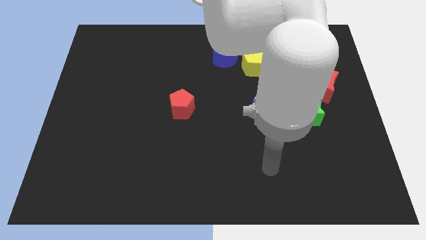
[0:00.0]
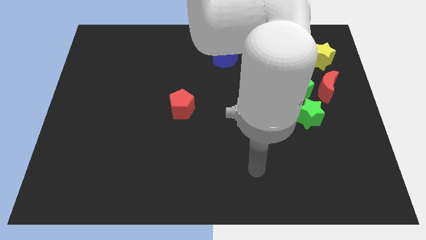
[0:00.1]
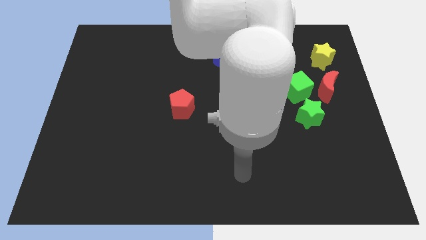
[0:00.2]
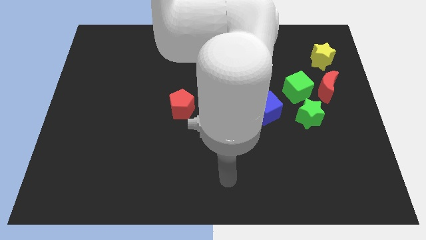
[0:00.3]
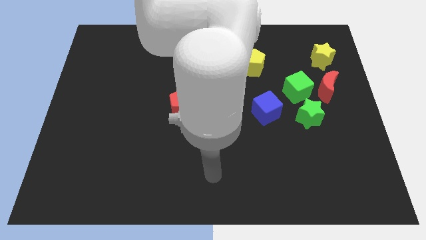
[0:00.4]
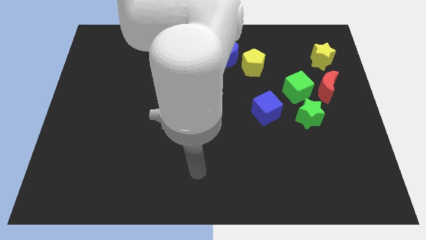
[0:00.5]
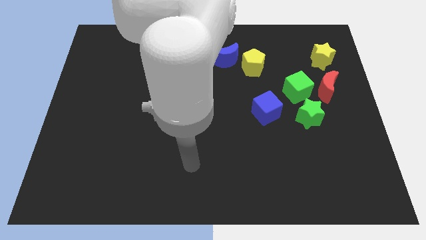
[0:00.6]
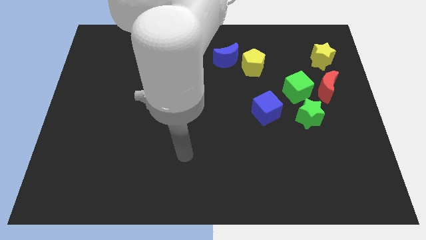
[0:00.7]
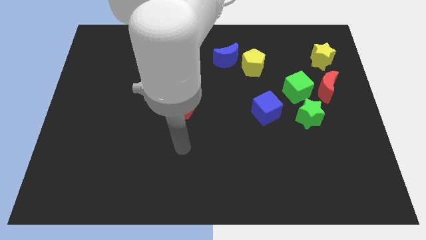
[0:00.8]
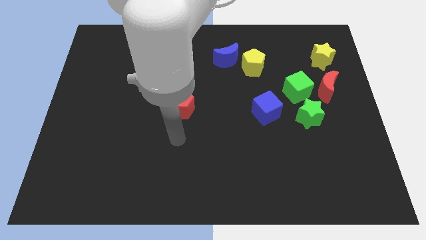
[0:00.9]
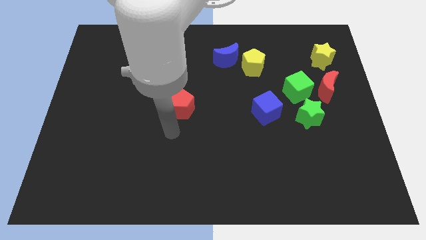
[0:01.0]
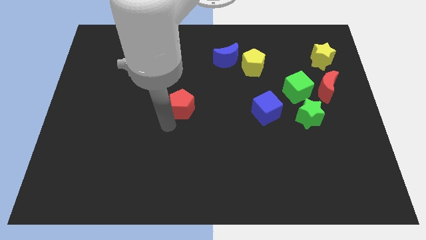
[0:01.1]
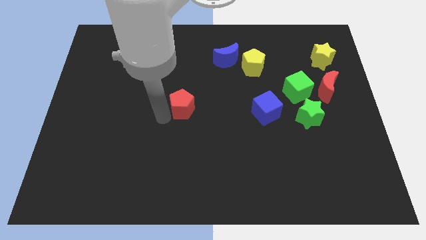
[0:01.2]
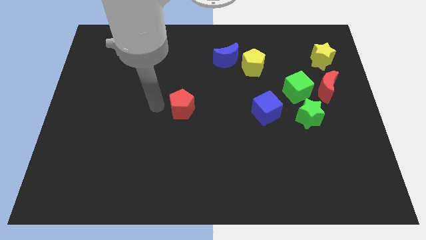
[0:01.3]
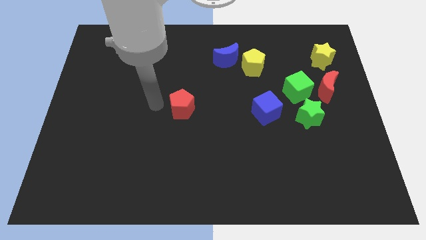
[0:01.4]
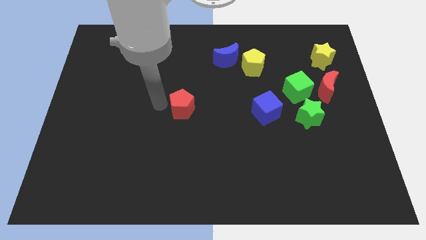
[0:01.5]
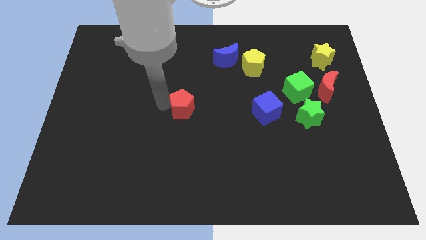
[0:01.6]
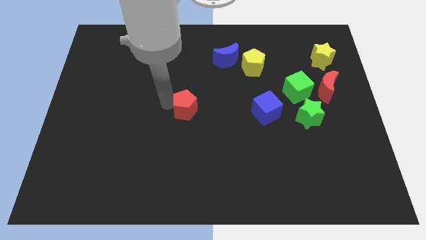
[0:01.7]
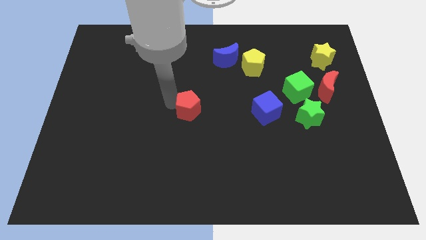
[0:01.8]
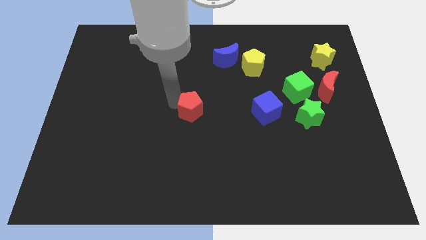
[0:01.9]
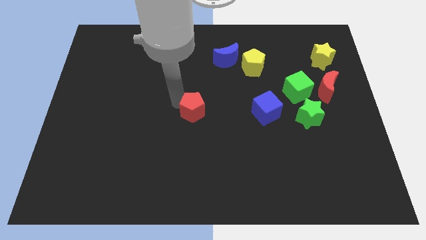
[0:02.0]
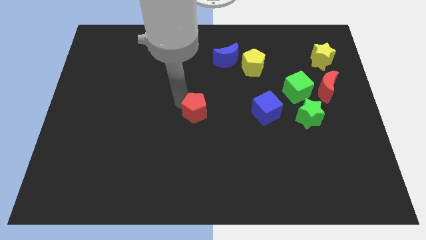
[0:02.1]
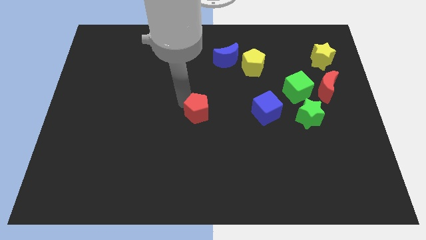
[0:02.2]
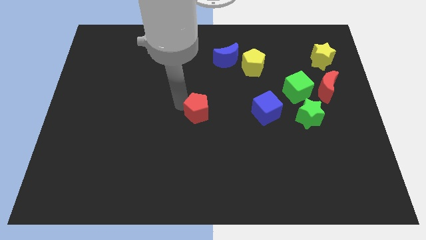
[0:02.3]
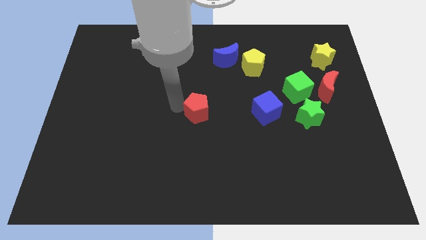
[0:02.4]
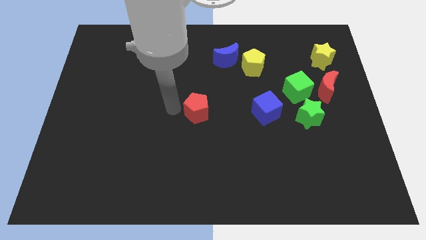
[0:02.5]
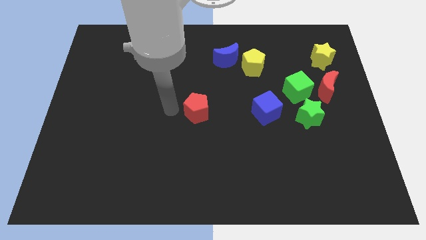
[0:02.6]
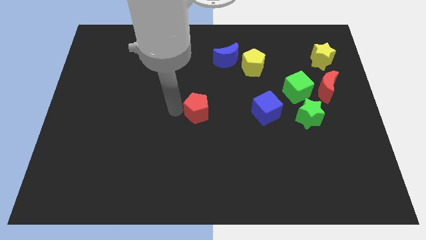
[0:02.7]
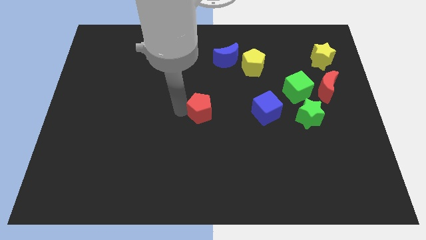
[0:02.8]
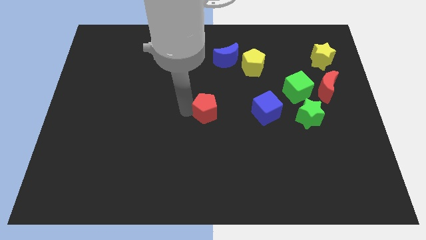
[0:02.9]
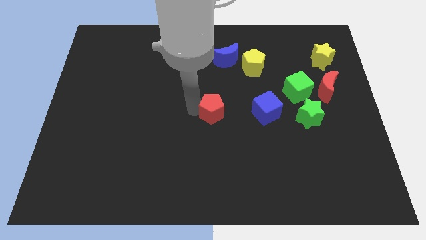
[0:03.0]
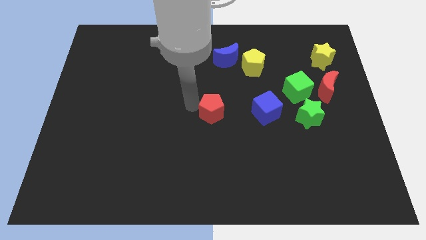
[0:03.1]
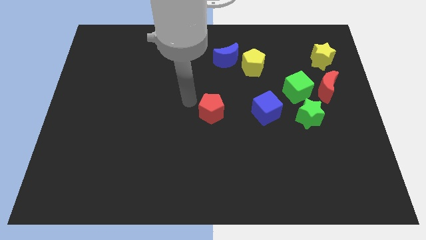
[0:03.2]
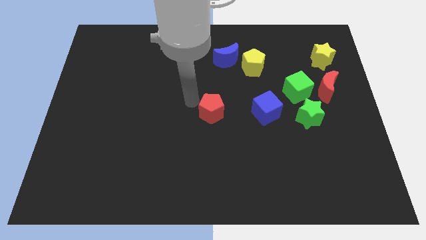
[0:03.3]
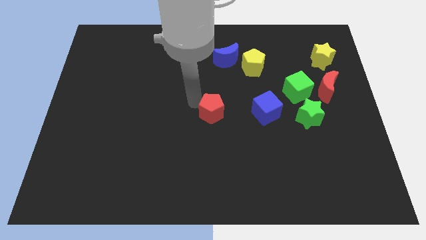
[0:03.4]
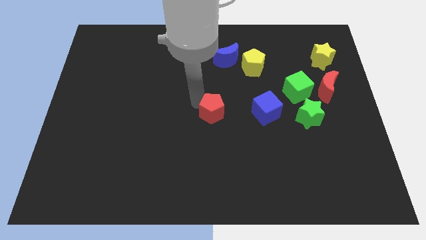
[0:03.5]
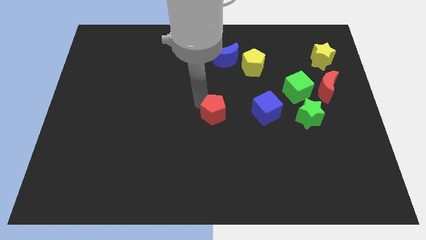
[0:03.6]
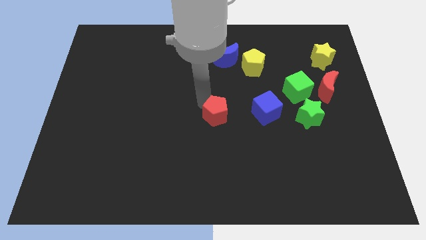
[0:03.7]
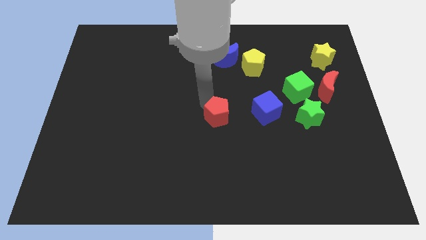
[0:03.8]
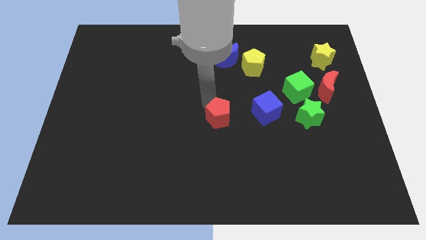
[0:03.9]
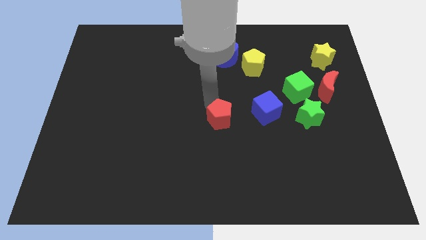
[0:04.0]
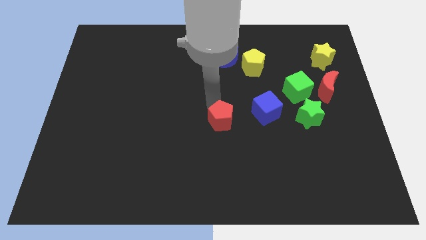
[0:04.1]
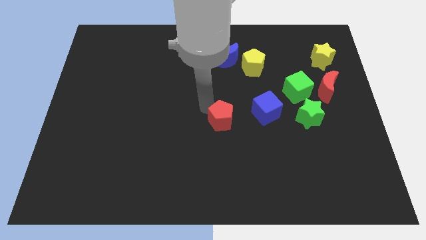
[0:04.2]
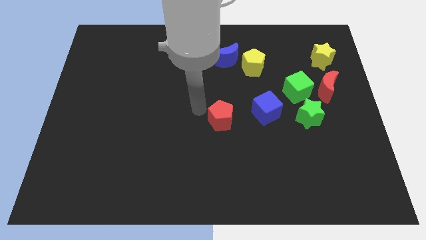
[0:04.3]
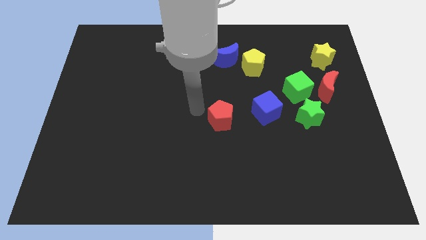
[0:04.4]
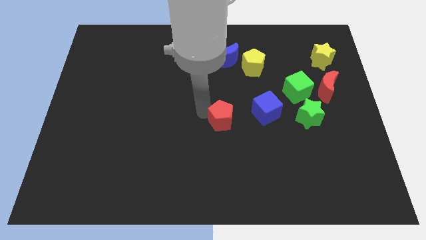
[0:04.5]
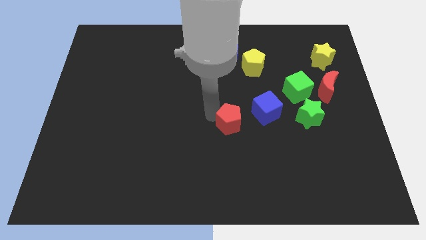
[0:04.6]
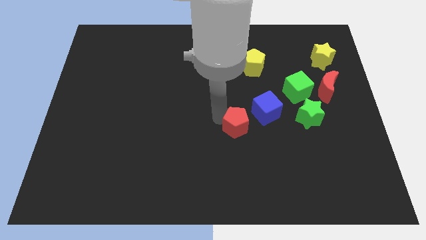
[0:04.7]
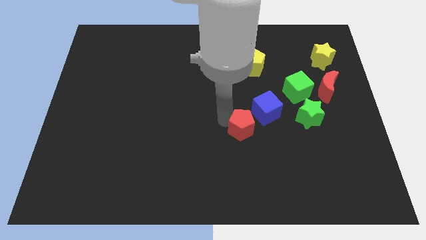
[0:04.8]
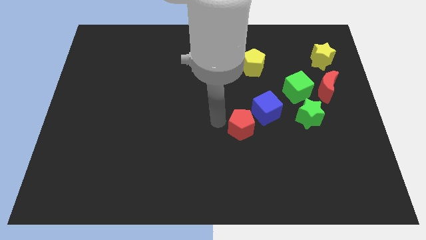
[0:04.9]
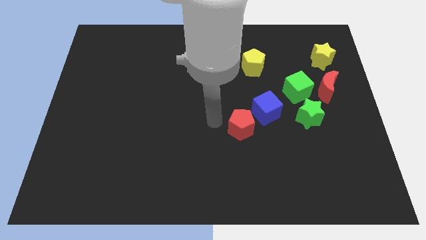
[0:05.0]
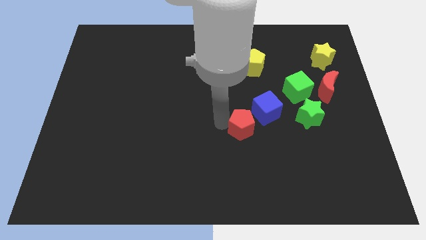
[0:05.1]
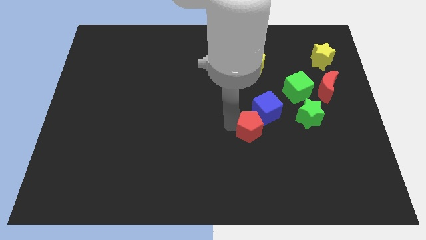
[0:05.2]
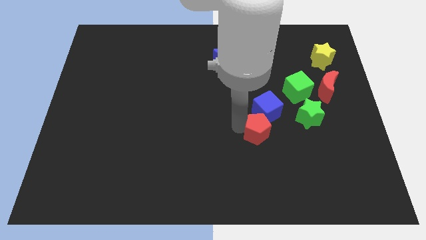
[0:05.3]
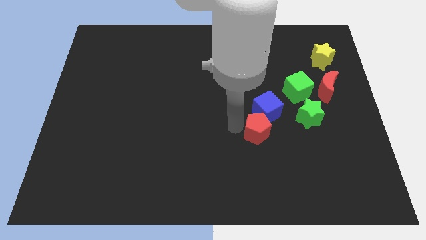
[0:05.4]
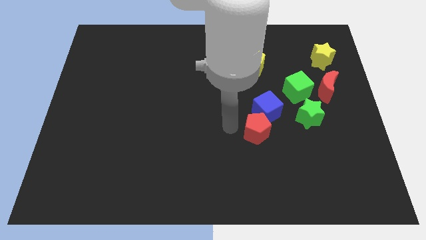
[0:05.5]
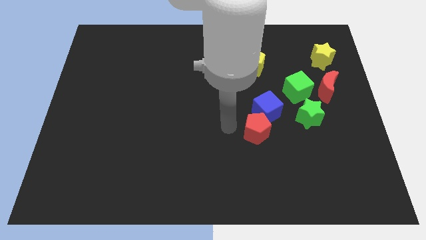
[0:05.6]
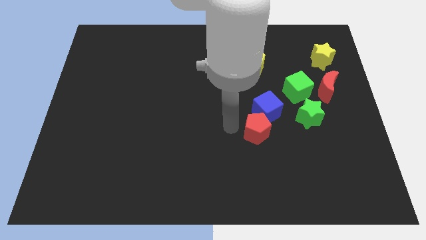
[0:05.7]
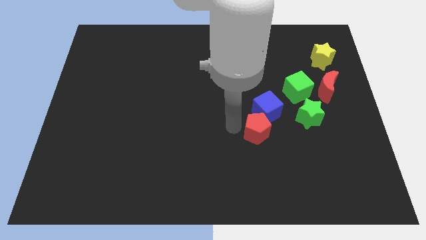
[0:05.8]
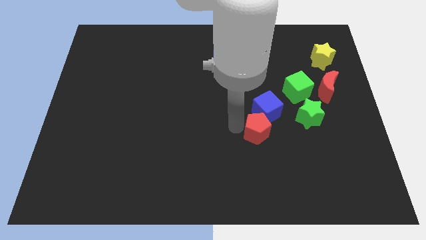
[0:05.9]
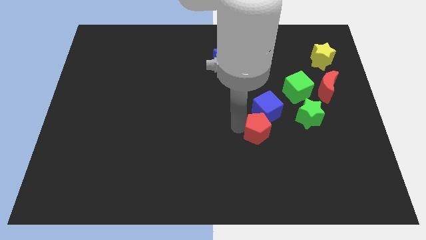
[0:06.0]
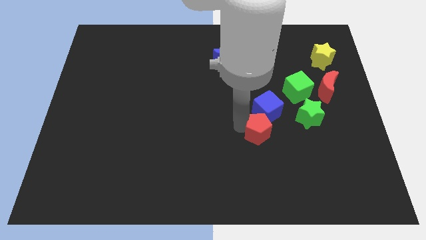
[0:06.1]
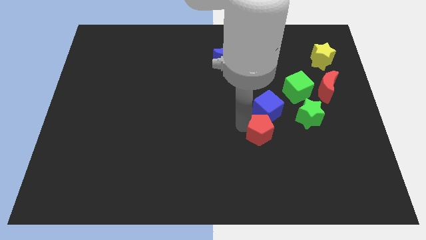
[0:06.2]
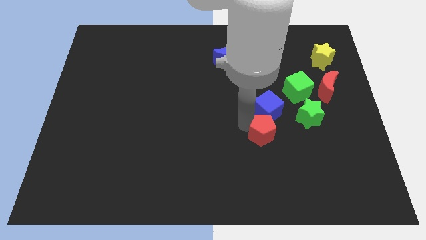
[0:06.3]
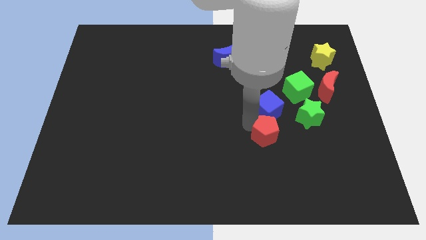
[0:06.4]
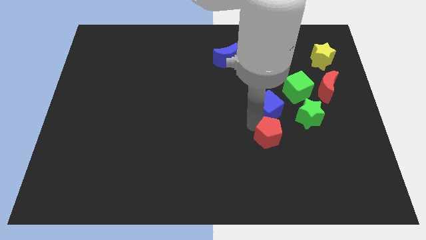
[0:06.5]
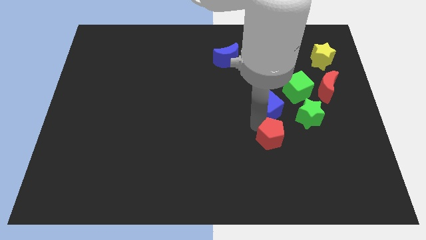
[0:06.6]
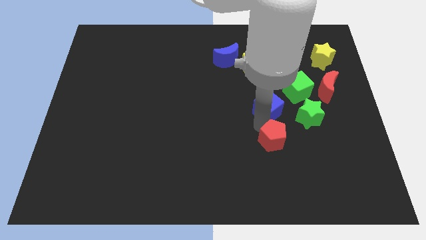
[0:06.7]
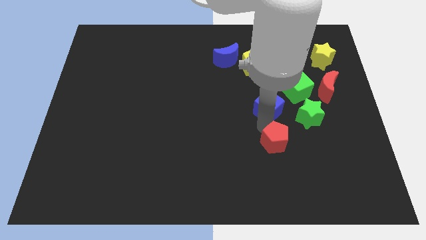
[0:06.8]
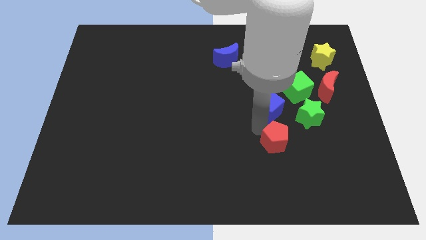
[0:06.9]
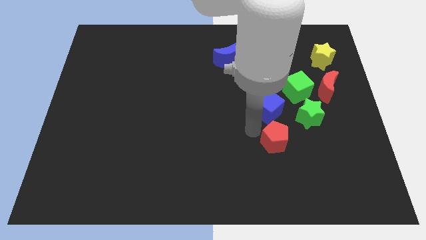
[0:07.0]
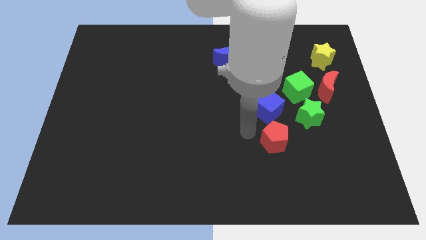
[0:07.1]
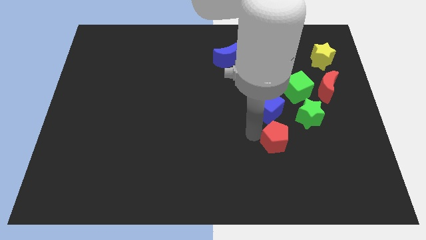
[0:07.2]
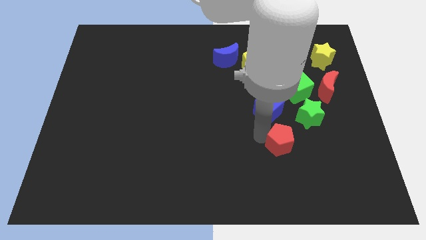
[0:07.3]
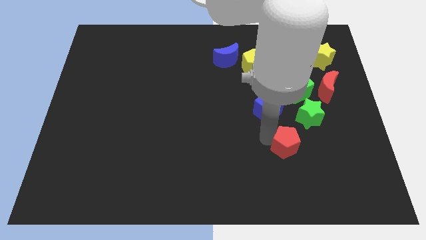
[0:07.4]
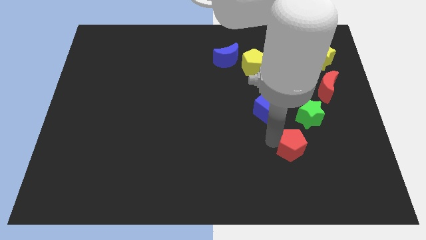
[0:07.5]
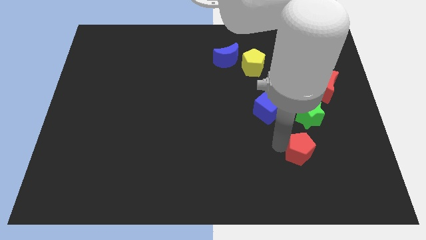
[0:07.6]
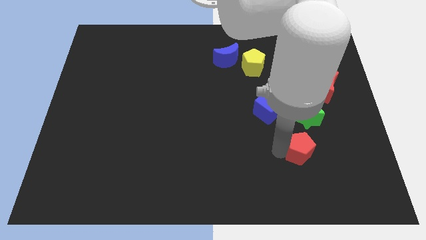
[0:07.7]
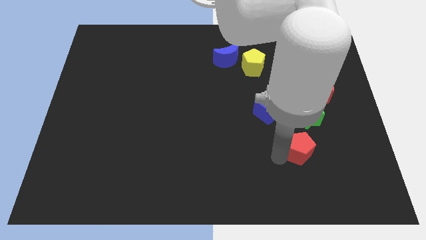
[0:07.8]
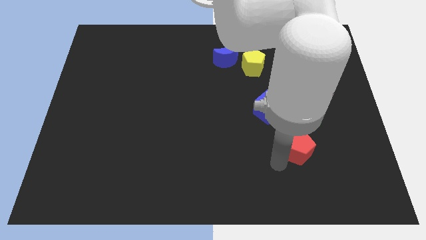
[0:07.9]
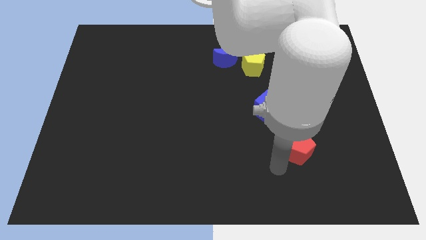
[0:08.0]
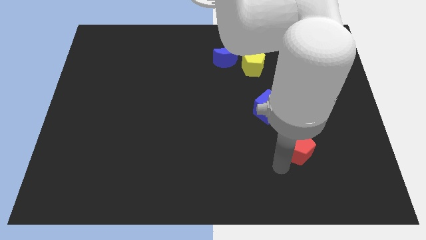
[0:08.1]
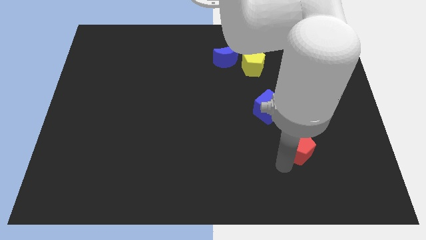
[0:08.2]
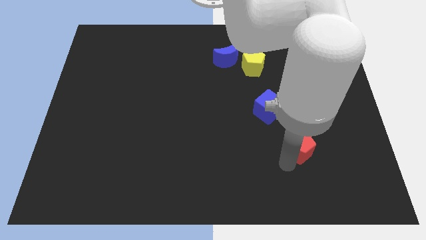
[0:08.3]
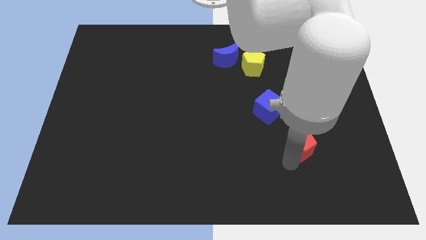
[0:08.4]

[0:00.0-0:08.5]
move the red pentagon right
